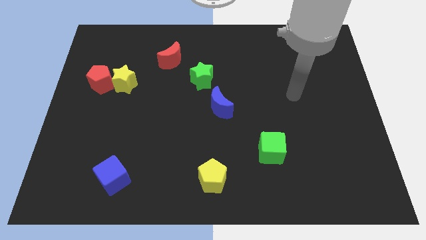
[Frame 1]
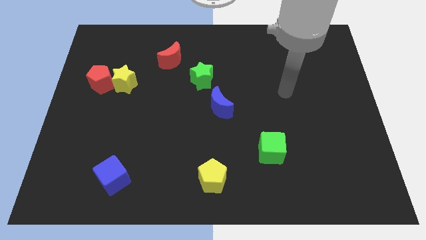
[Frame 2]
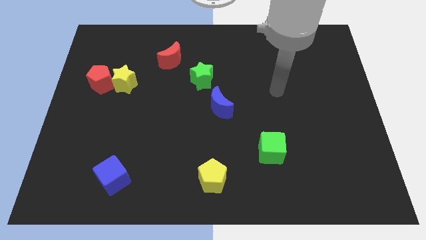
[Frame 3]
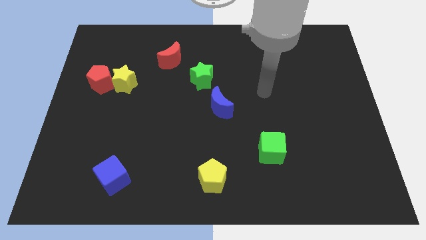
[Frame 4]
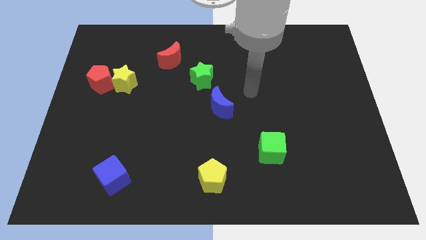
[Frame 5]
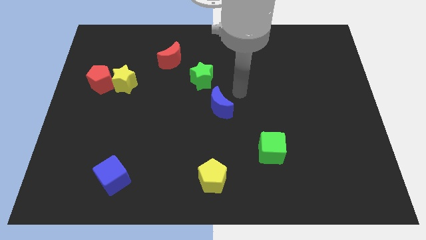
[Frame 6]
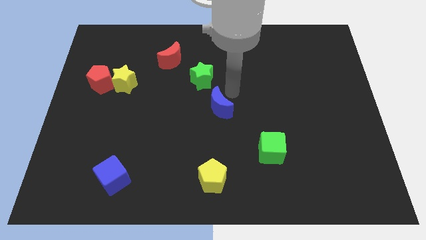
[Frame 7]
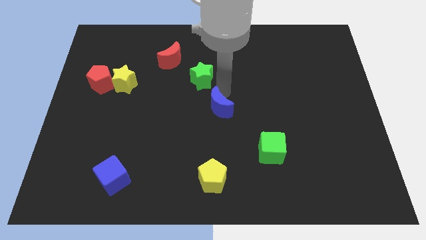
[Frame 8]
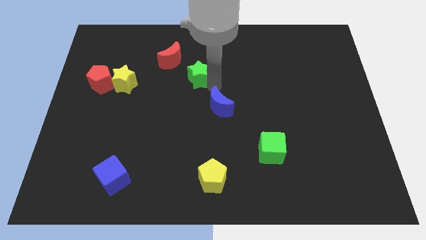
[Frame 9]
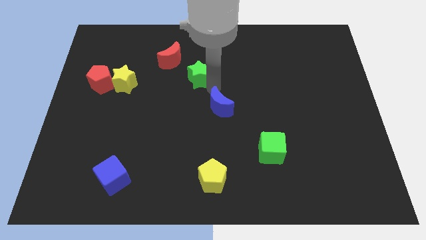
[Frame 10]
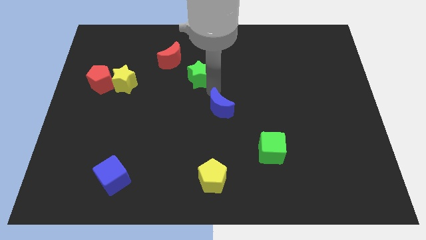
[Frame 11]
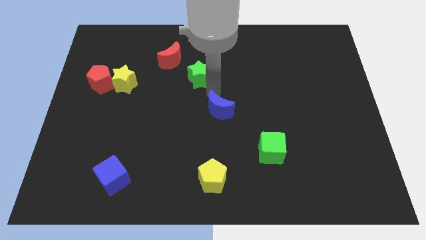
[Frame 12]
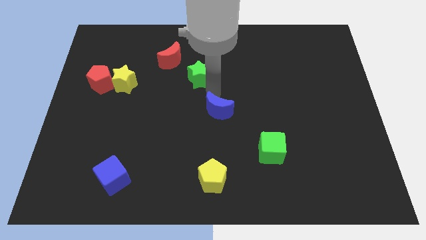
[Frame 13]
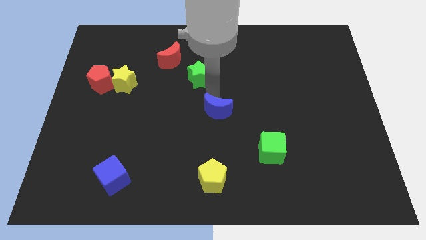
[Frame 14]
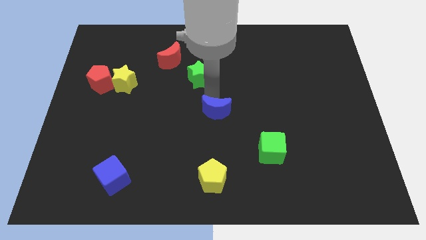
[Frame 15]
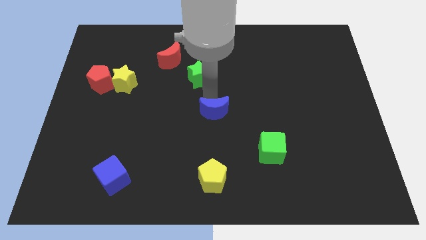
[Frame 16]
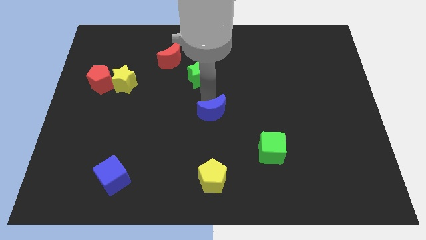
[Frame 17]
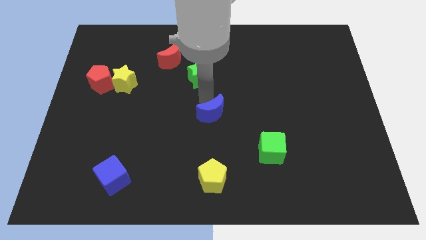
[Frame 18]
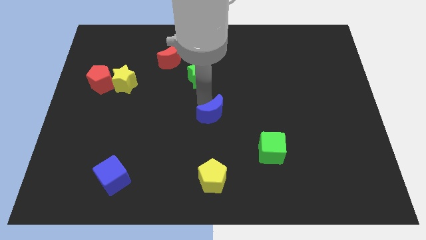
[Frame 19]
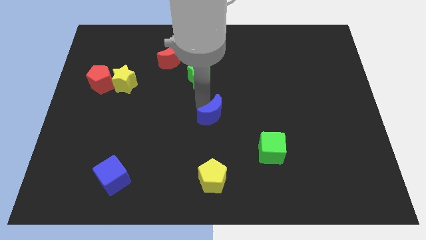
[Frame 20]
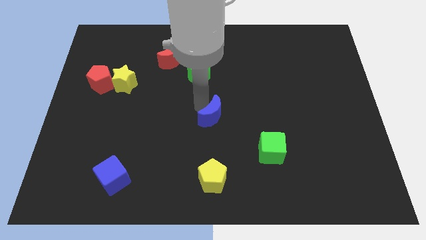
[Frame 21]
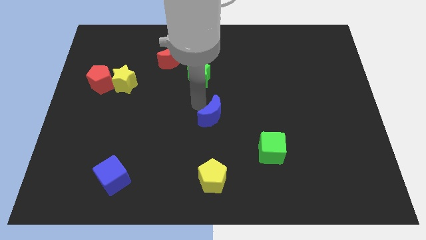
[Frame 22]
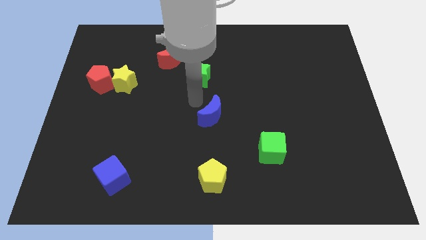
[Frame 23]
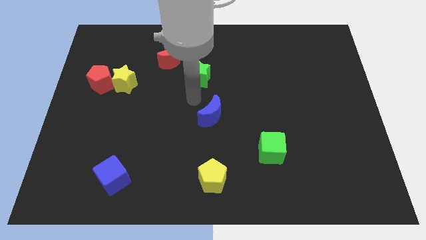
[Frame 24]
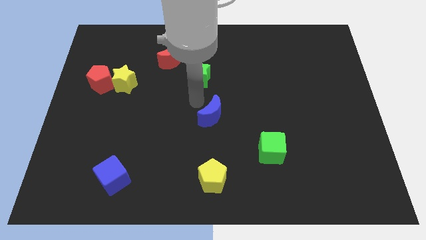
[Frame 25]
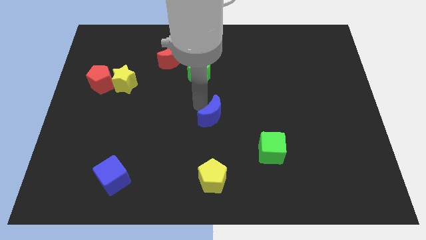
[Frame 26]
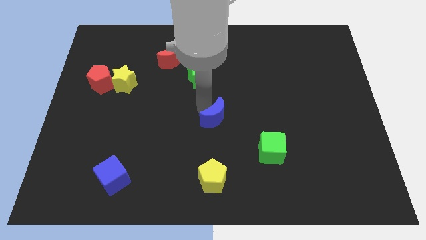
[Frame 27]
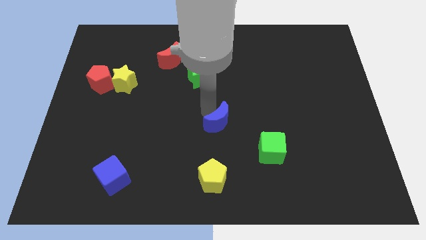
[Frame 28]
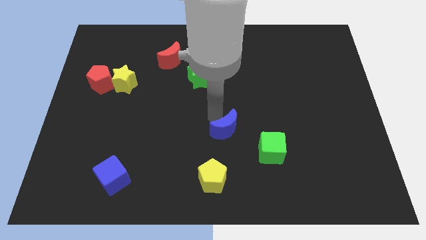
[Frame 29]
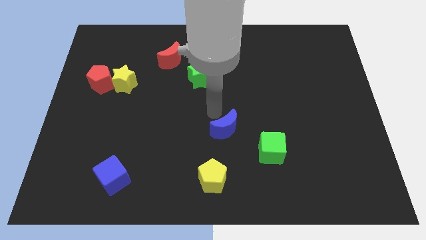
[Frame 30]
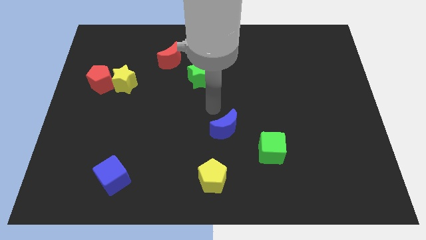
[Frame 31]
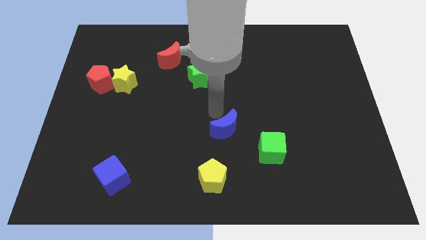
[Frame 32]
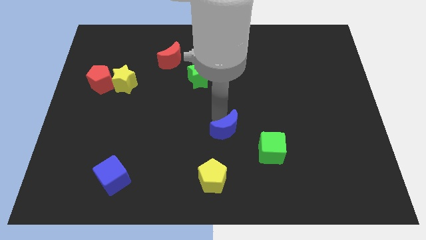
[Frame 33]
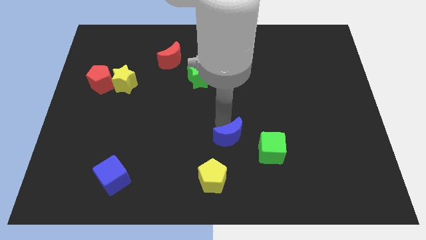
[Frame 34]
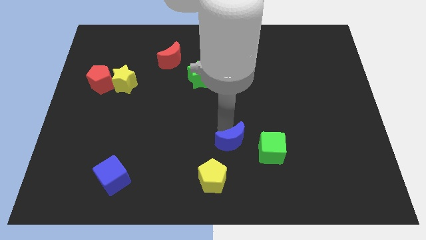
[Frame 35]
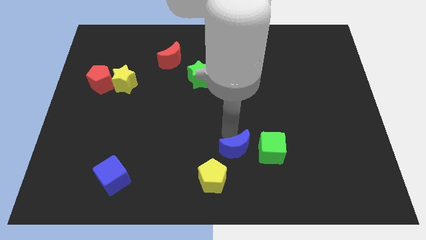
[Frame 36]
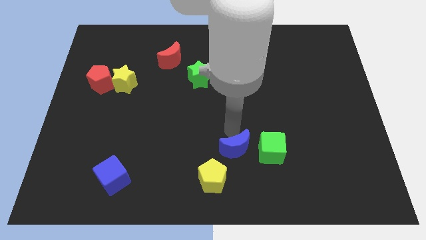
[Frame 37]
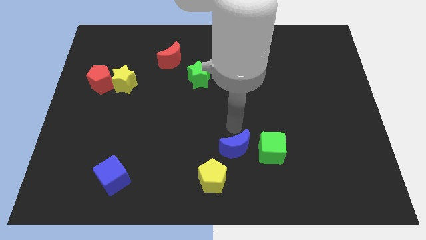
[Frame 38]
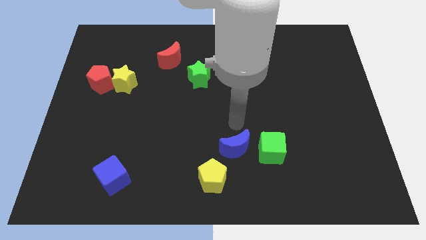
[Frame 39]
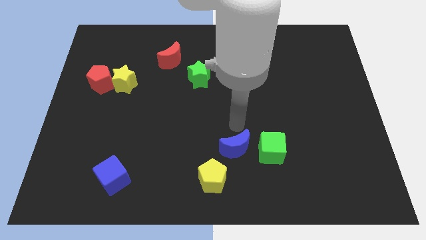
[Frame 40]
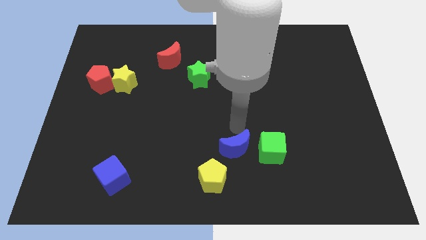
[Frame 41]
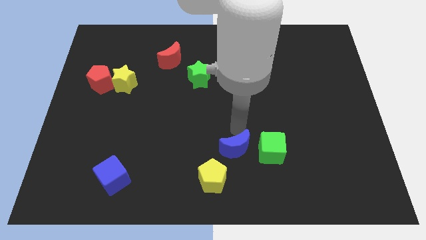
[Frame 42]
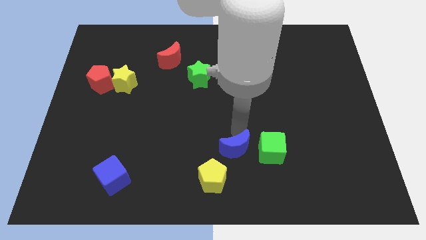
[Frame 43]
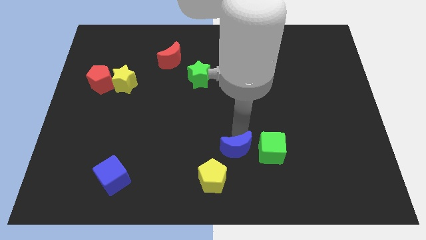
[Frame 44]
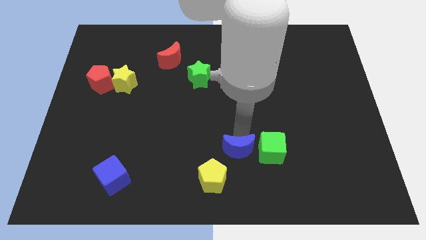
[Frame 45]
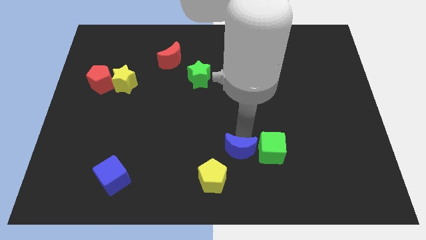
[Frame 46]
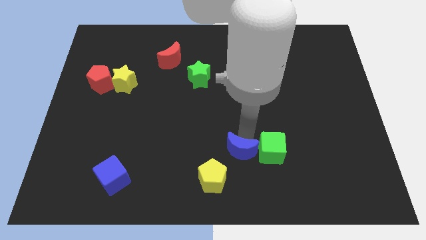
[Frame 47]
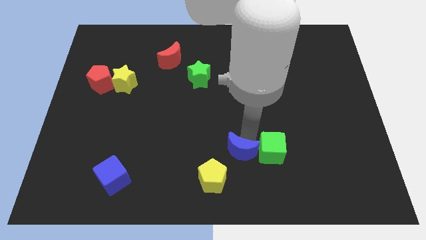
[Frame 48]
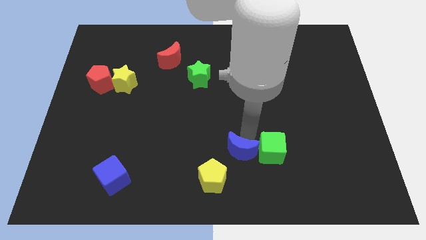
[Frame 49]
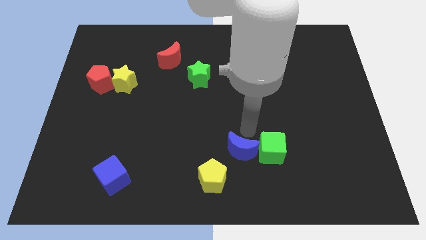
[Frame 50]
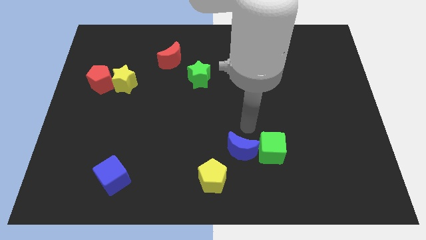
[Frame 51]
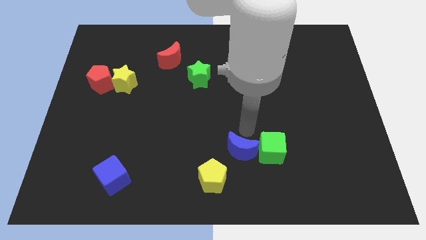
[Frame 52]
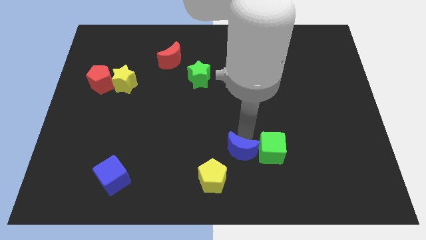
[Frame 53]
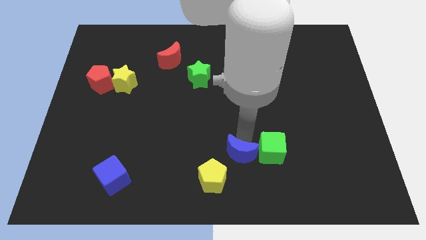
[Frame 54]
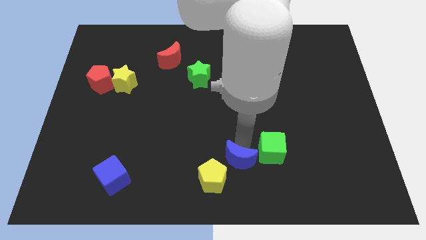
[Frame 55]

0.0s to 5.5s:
move the blue moon to the bottom

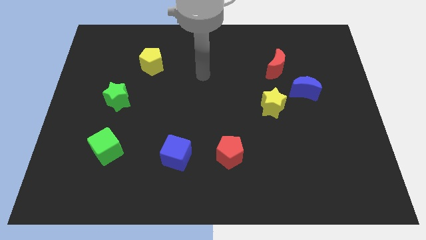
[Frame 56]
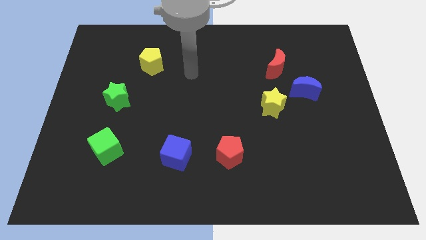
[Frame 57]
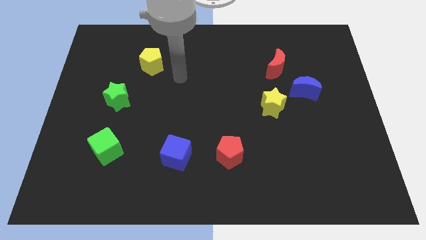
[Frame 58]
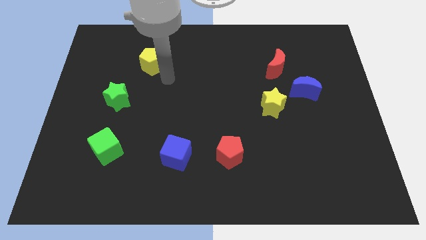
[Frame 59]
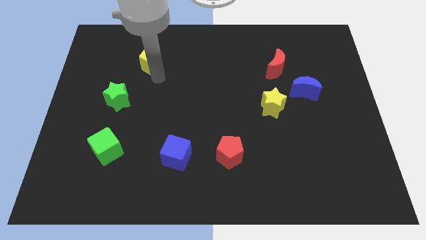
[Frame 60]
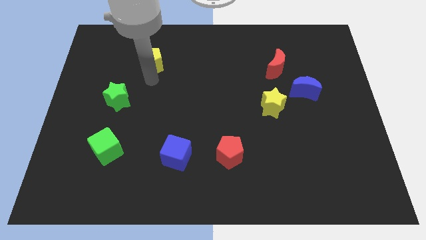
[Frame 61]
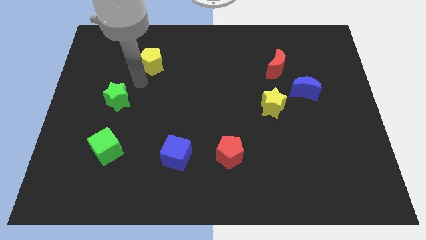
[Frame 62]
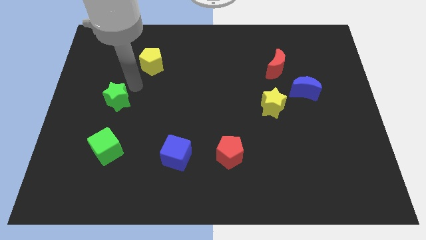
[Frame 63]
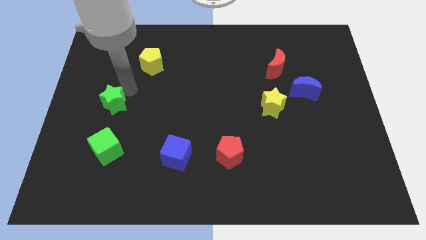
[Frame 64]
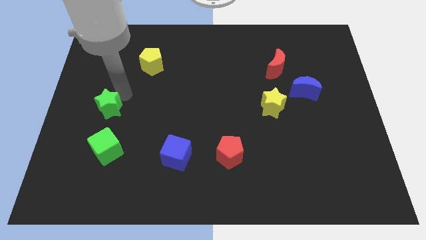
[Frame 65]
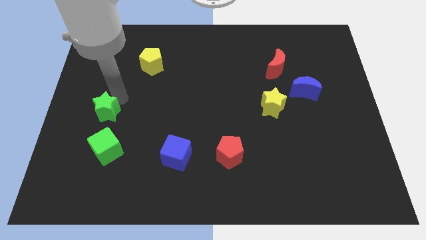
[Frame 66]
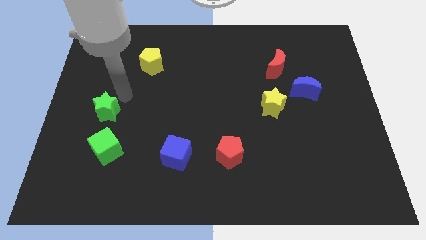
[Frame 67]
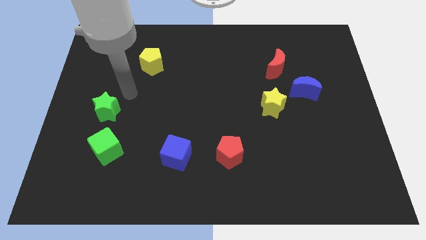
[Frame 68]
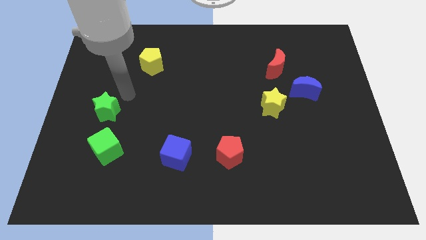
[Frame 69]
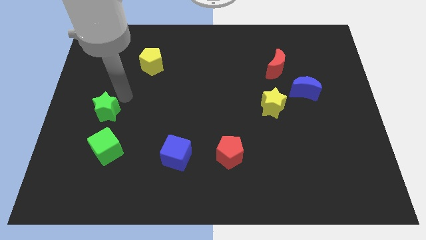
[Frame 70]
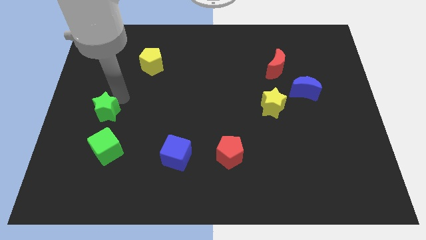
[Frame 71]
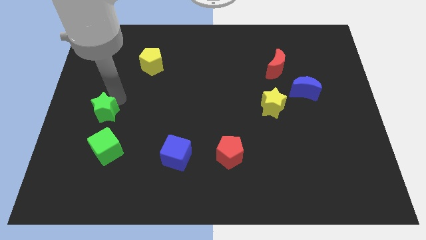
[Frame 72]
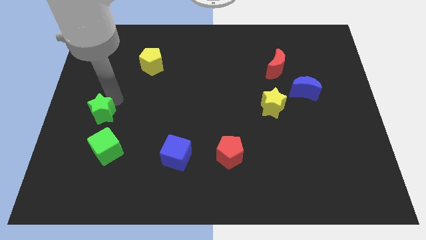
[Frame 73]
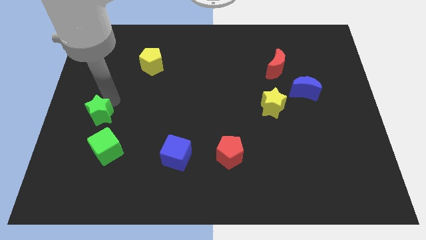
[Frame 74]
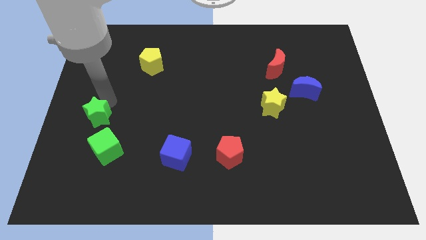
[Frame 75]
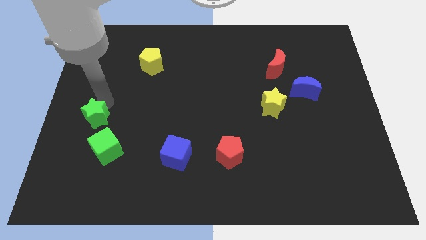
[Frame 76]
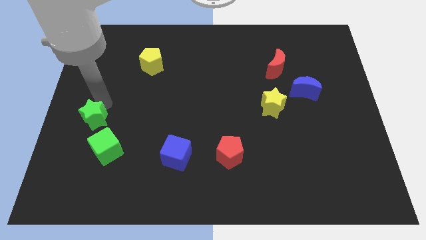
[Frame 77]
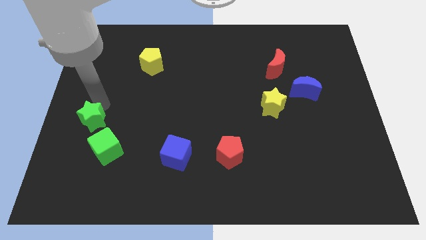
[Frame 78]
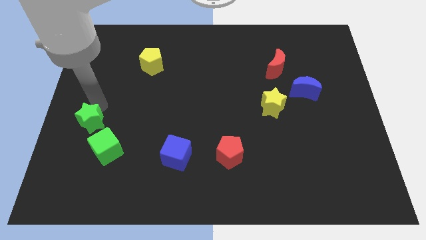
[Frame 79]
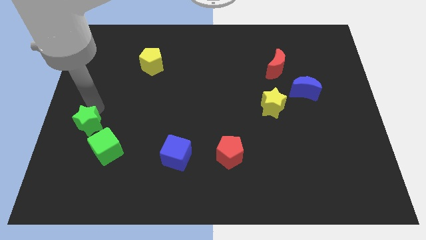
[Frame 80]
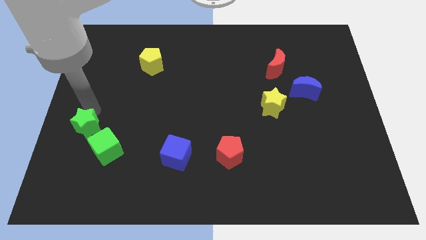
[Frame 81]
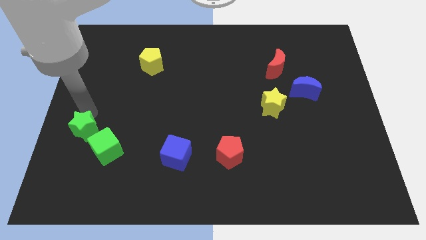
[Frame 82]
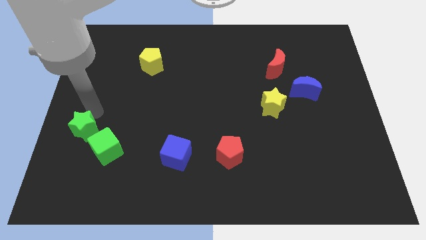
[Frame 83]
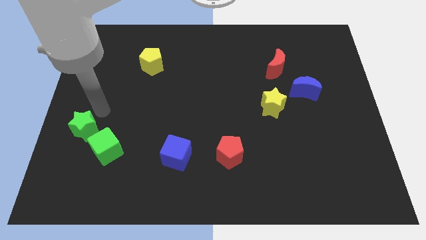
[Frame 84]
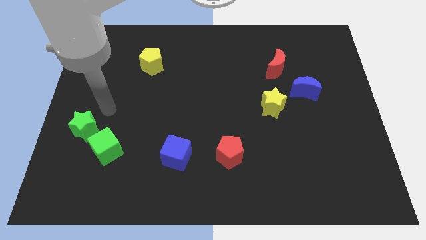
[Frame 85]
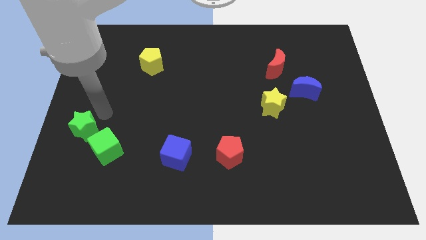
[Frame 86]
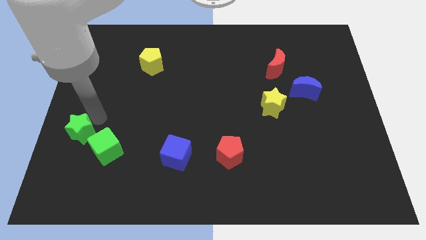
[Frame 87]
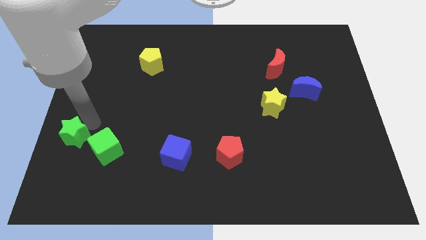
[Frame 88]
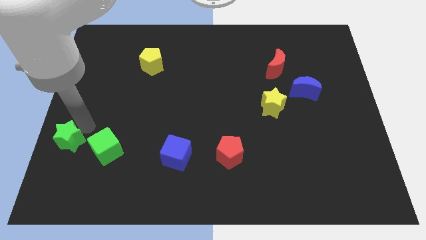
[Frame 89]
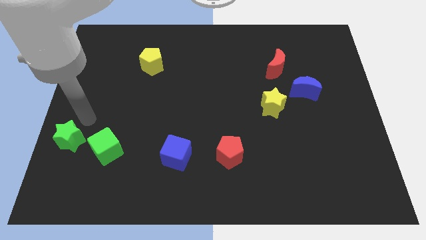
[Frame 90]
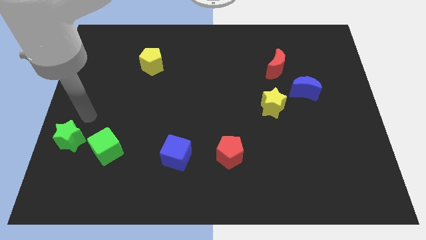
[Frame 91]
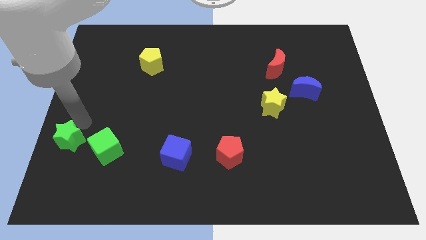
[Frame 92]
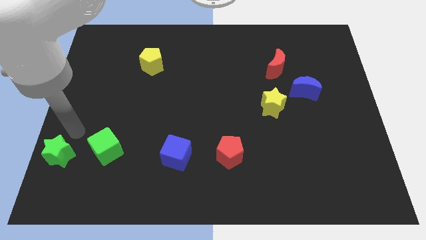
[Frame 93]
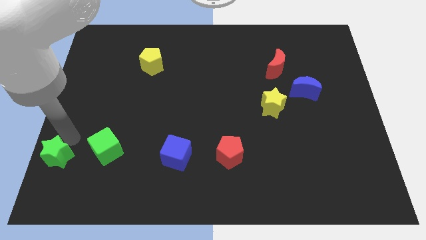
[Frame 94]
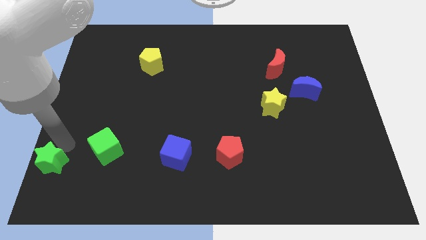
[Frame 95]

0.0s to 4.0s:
put the green star to the bottom left of the board
